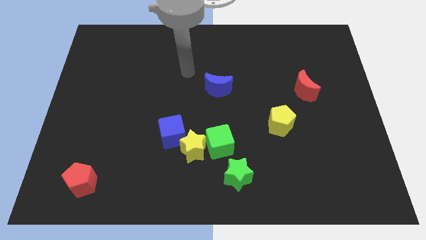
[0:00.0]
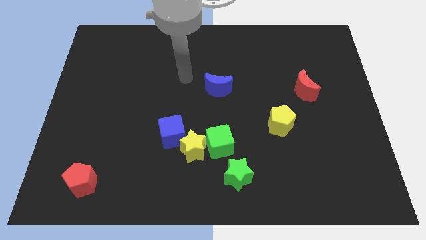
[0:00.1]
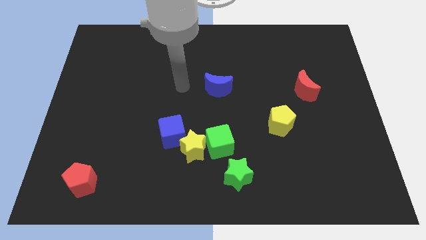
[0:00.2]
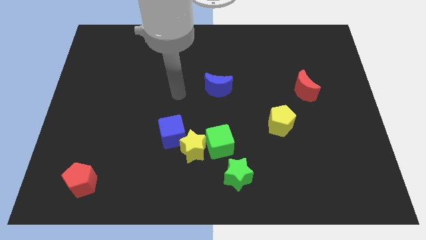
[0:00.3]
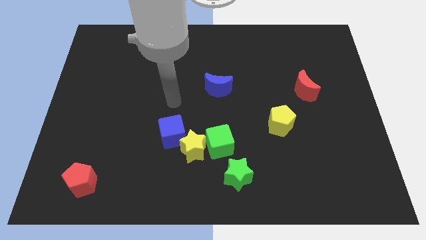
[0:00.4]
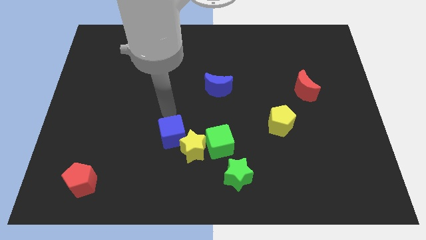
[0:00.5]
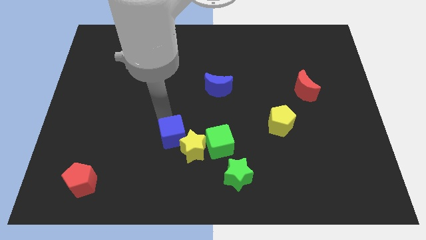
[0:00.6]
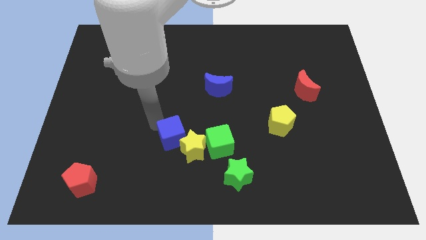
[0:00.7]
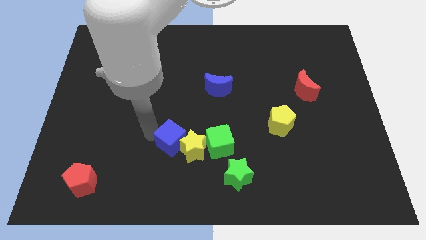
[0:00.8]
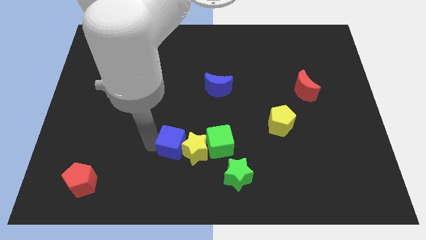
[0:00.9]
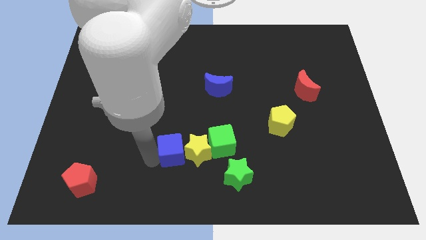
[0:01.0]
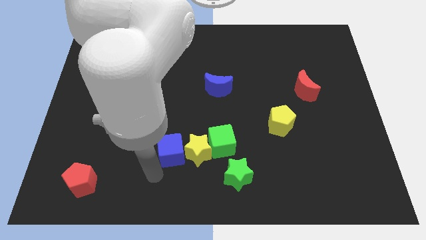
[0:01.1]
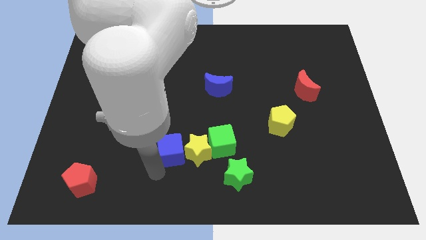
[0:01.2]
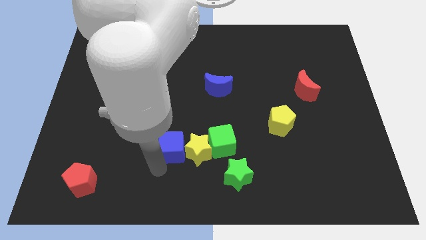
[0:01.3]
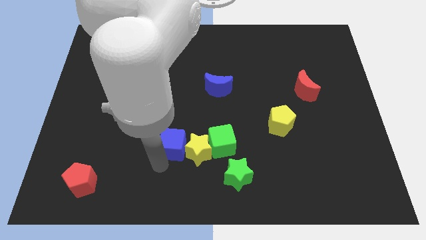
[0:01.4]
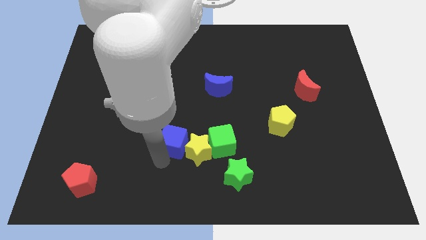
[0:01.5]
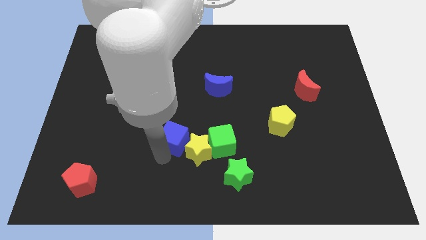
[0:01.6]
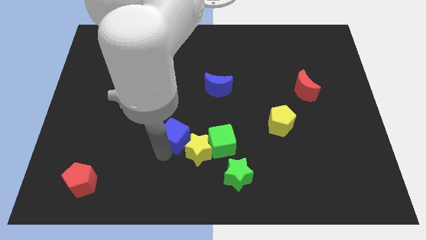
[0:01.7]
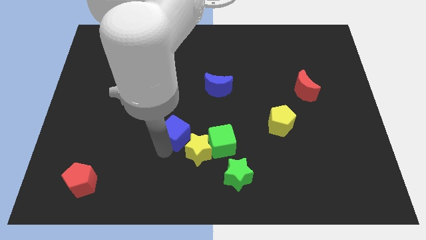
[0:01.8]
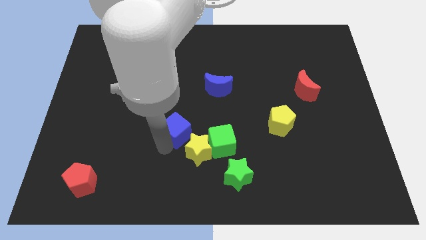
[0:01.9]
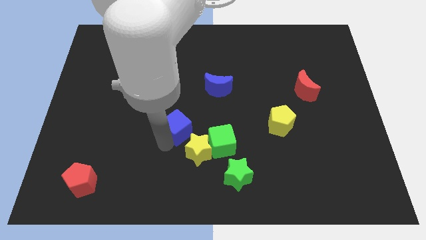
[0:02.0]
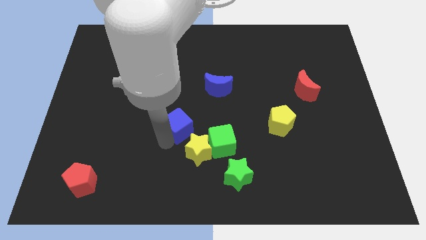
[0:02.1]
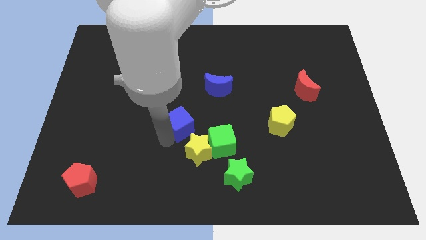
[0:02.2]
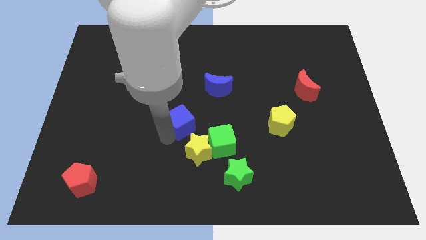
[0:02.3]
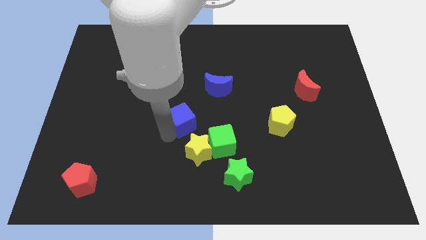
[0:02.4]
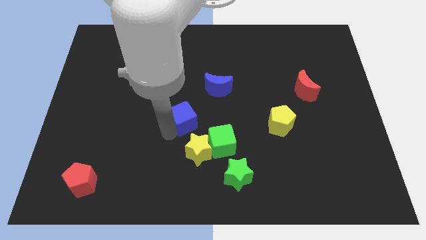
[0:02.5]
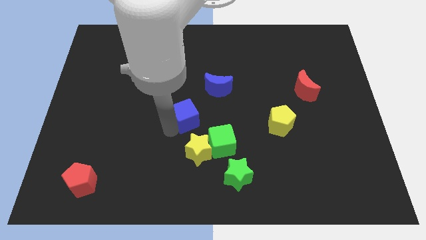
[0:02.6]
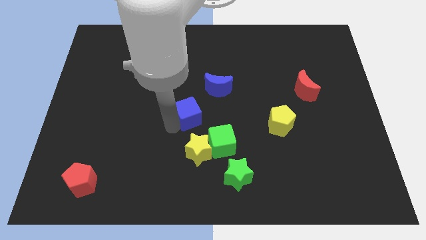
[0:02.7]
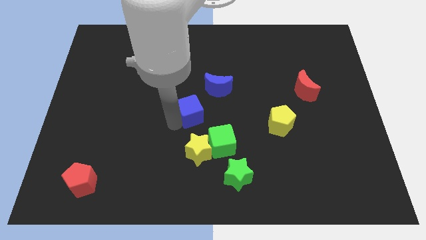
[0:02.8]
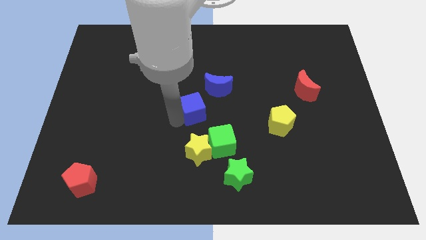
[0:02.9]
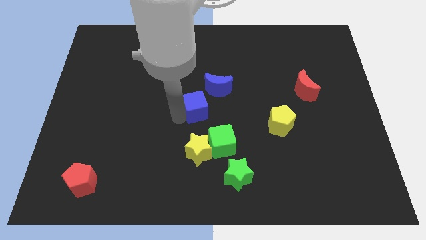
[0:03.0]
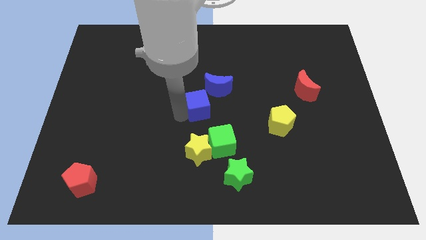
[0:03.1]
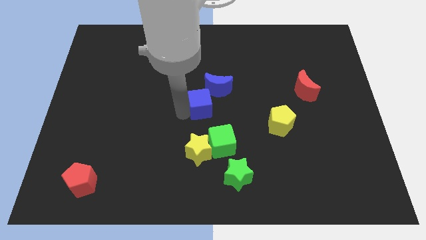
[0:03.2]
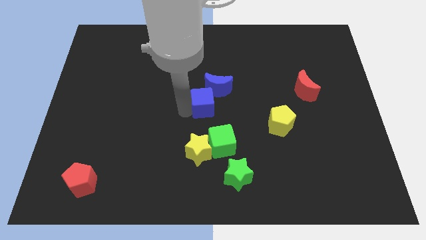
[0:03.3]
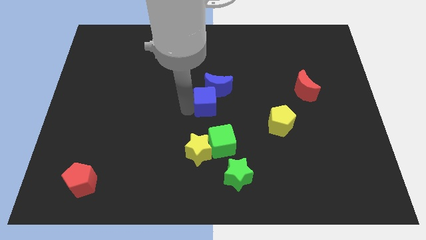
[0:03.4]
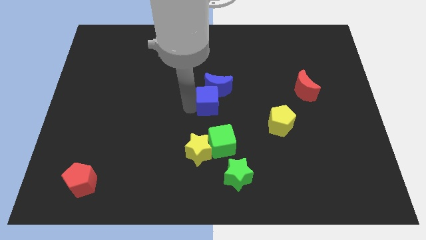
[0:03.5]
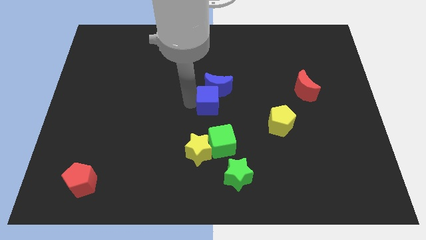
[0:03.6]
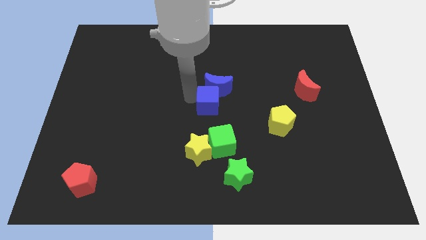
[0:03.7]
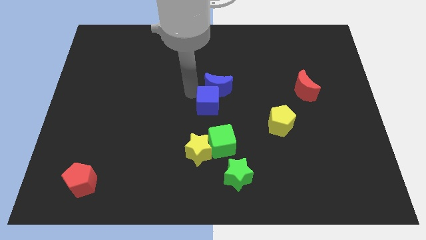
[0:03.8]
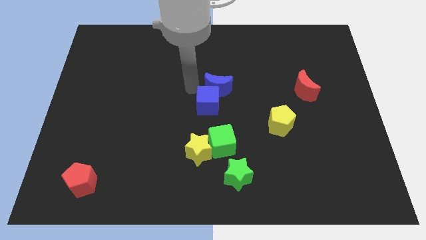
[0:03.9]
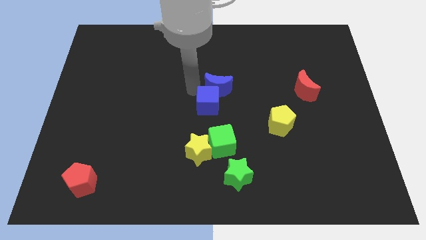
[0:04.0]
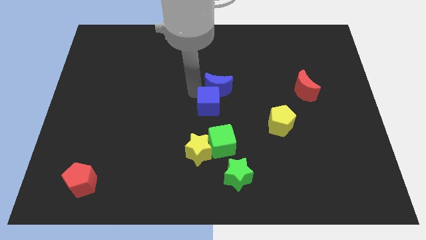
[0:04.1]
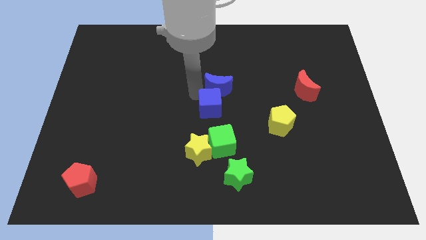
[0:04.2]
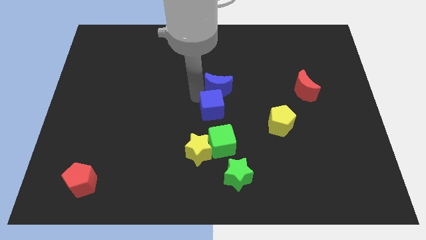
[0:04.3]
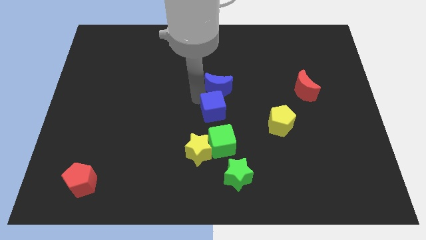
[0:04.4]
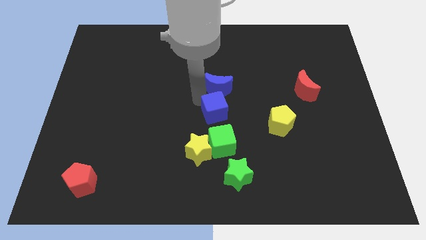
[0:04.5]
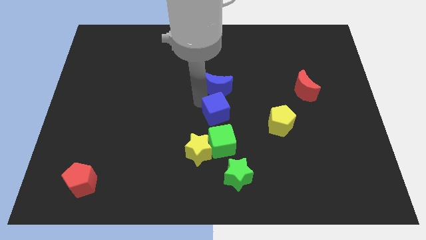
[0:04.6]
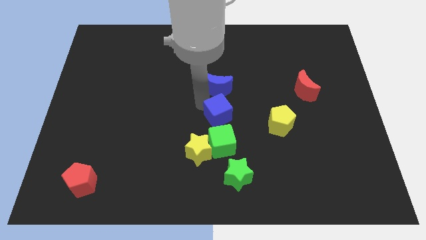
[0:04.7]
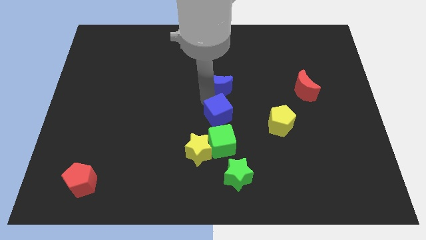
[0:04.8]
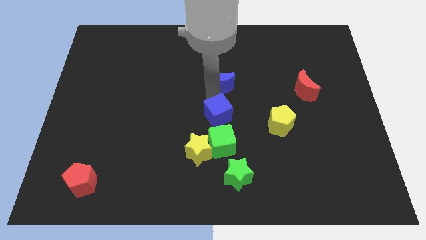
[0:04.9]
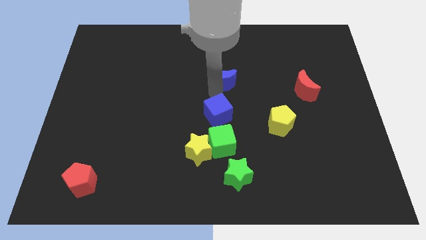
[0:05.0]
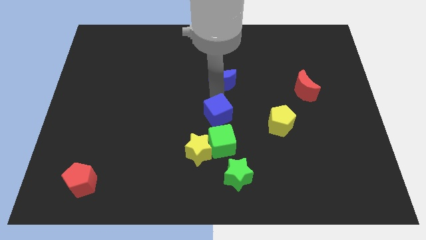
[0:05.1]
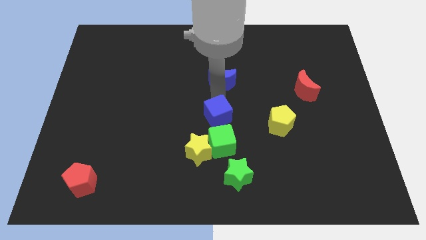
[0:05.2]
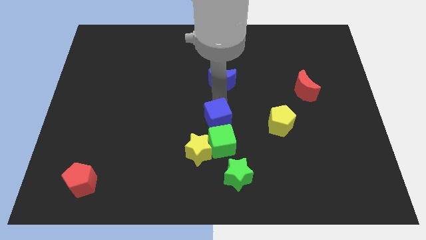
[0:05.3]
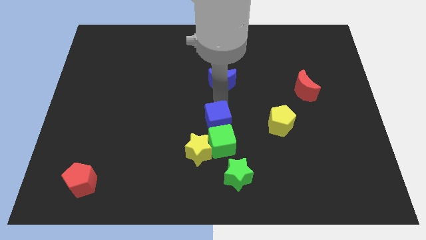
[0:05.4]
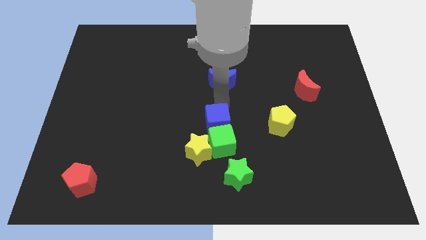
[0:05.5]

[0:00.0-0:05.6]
slide the blue cube close to the green cube

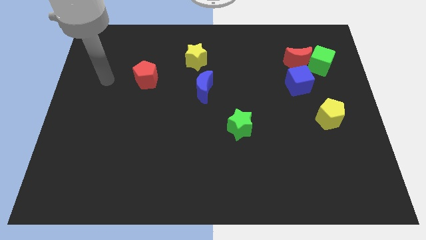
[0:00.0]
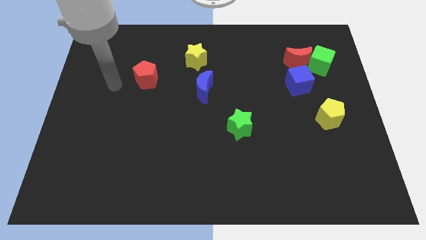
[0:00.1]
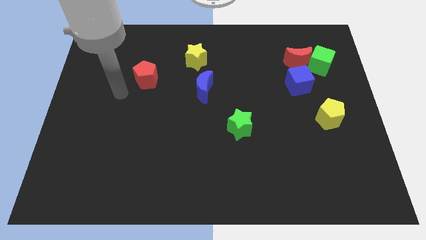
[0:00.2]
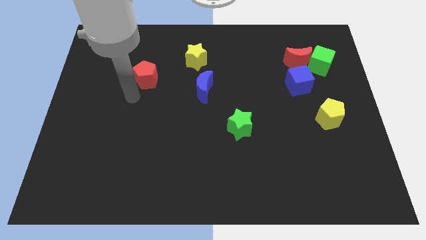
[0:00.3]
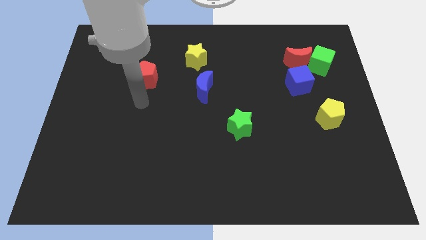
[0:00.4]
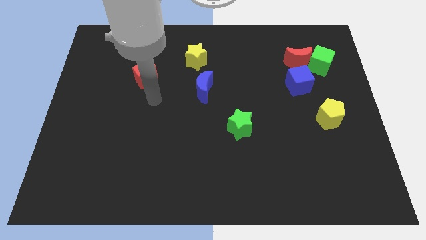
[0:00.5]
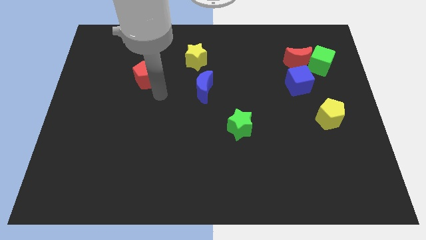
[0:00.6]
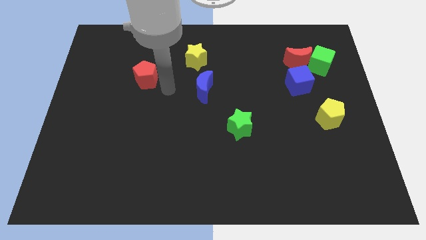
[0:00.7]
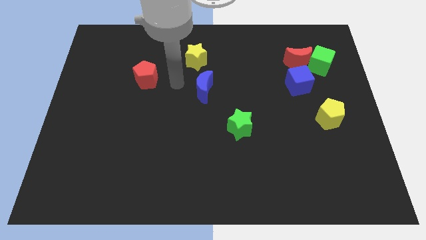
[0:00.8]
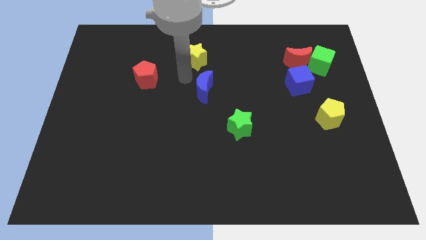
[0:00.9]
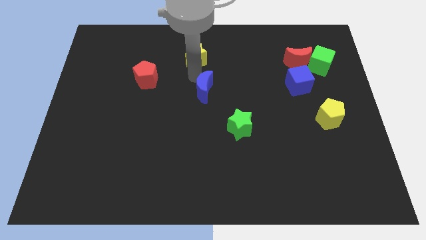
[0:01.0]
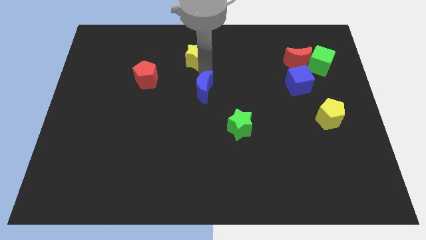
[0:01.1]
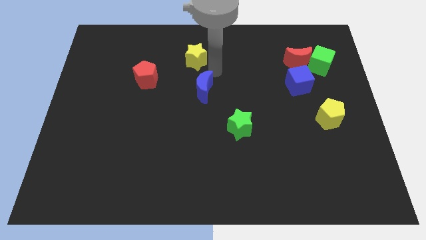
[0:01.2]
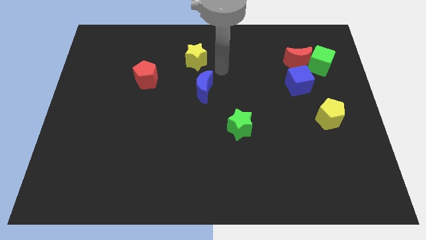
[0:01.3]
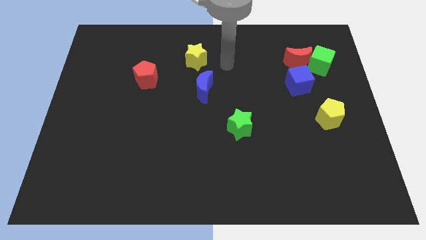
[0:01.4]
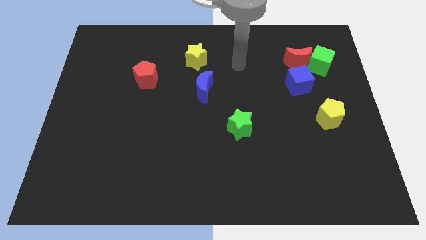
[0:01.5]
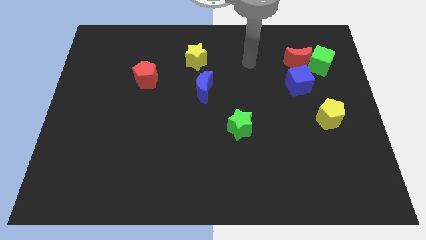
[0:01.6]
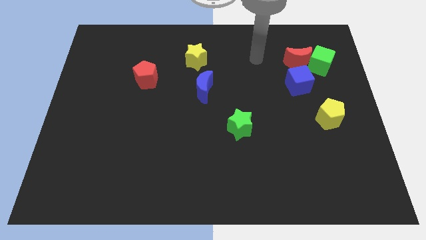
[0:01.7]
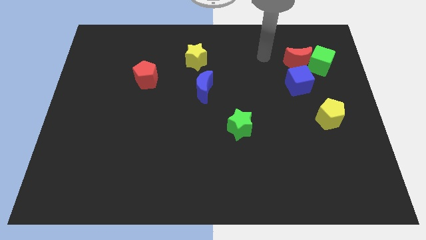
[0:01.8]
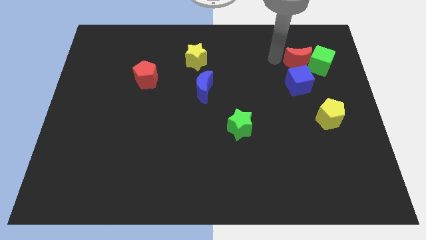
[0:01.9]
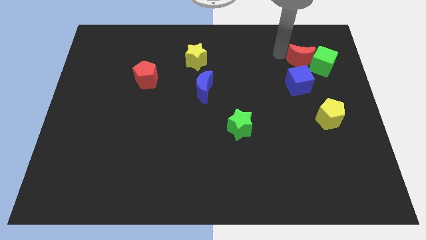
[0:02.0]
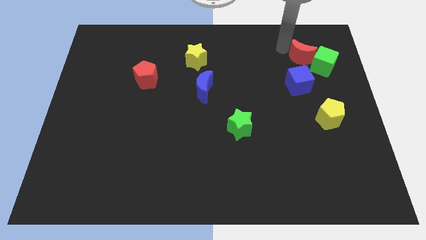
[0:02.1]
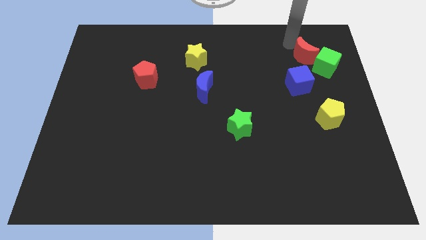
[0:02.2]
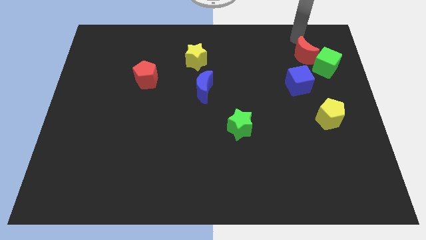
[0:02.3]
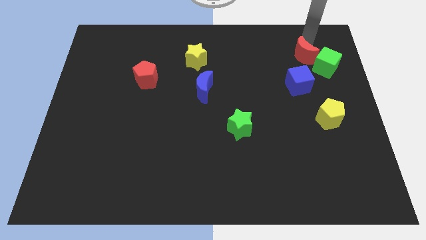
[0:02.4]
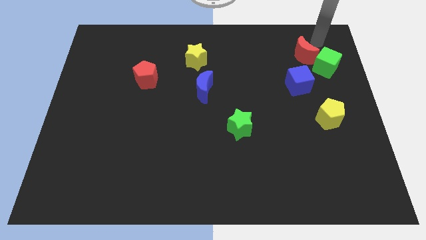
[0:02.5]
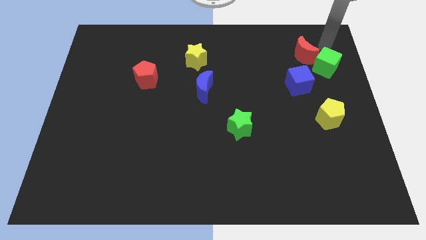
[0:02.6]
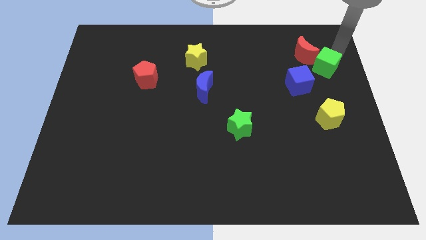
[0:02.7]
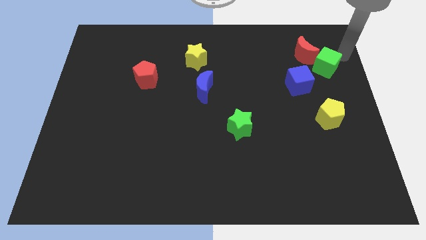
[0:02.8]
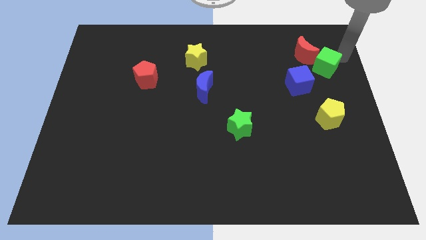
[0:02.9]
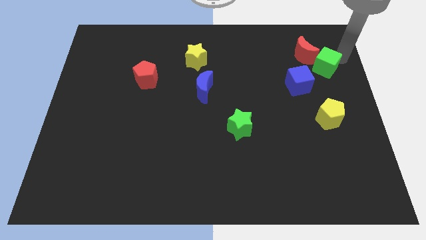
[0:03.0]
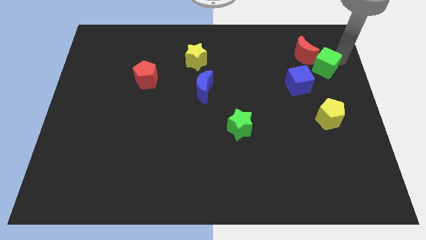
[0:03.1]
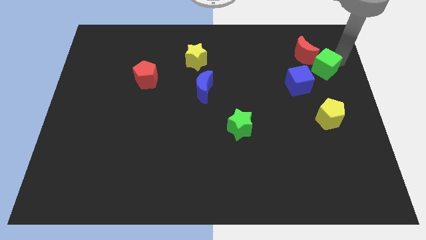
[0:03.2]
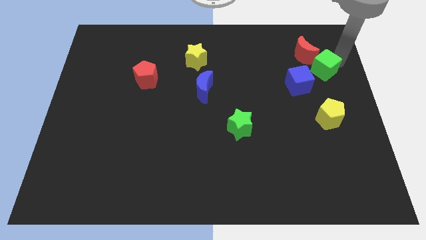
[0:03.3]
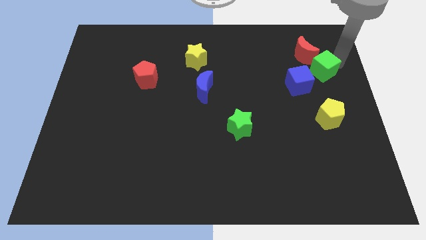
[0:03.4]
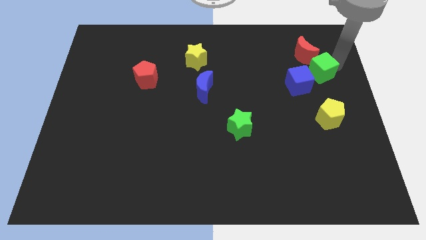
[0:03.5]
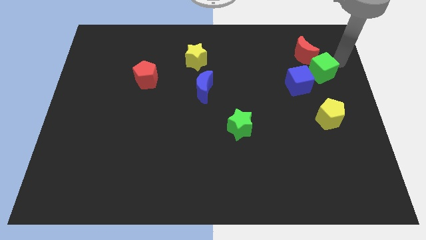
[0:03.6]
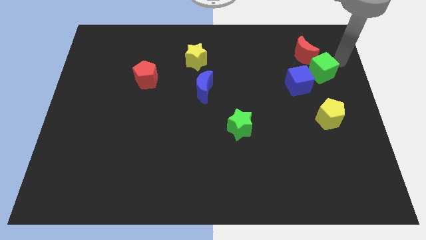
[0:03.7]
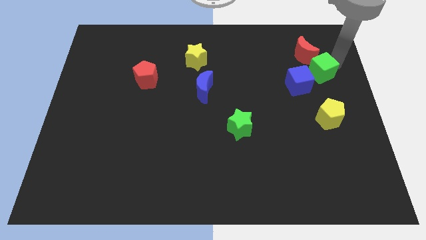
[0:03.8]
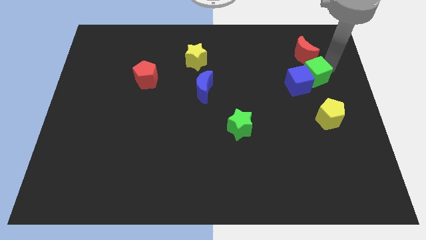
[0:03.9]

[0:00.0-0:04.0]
put the green cube next to the blue cube
